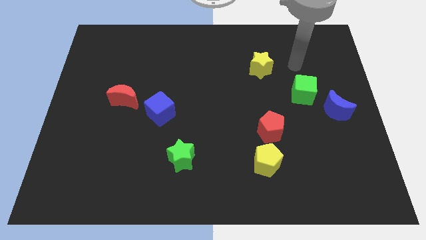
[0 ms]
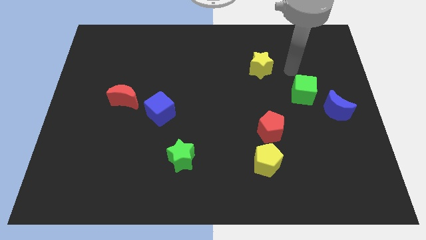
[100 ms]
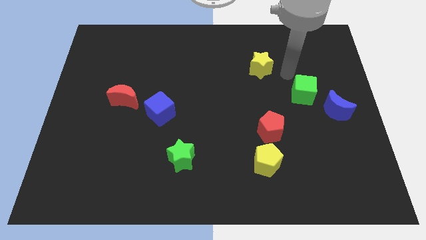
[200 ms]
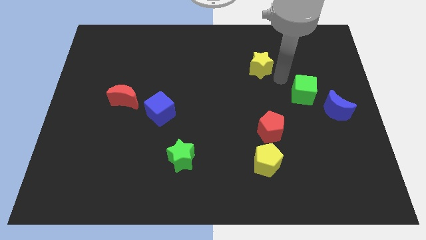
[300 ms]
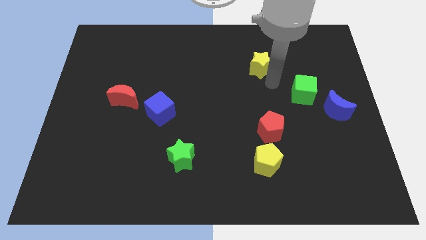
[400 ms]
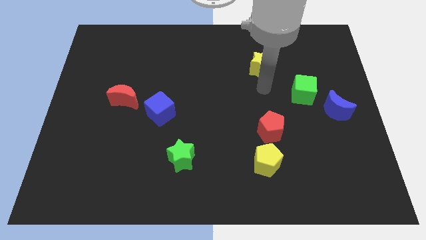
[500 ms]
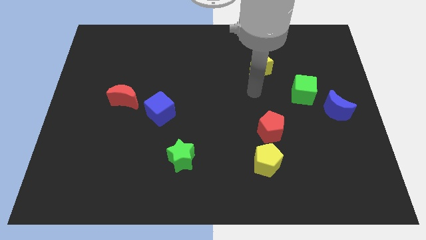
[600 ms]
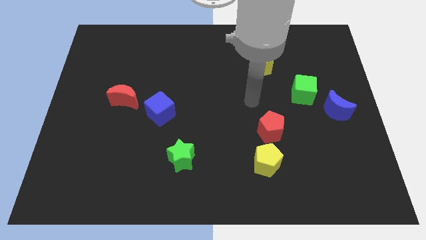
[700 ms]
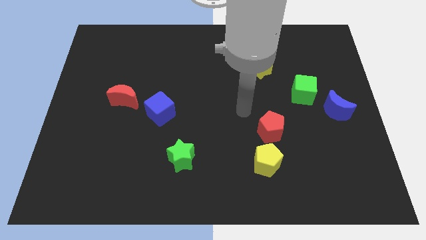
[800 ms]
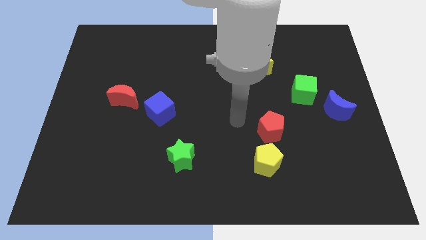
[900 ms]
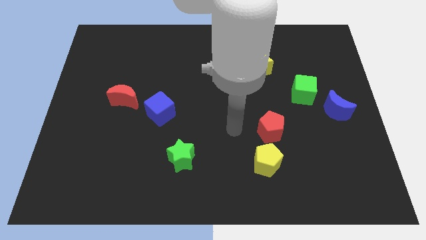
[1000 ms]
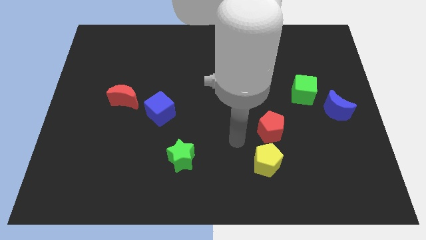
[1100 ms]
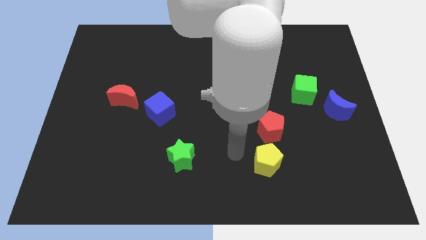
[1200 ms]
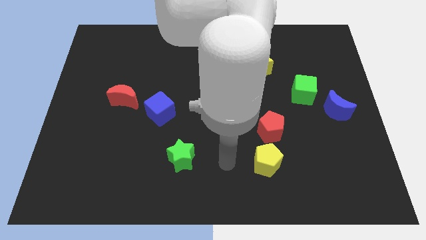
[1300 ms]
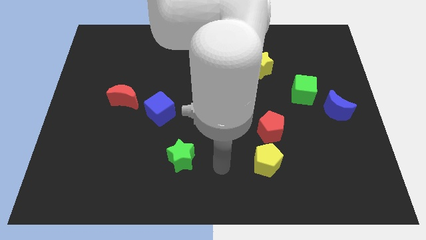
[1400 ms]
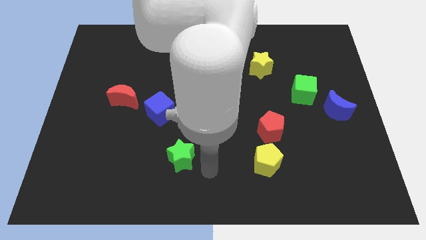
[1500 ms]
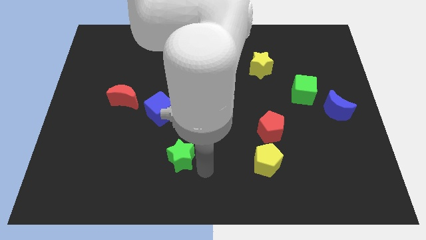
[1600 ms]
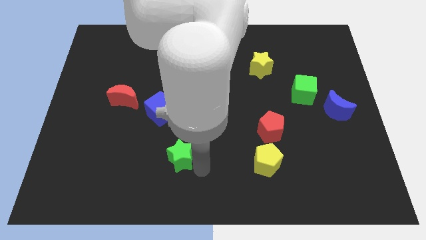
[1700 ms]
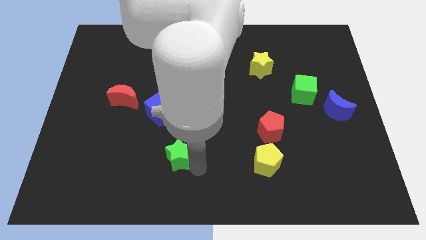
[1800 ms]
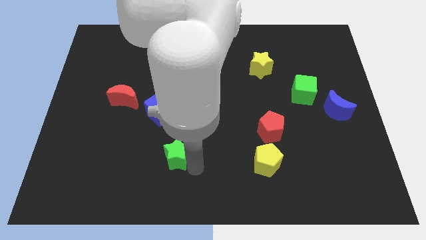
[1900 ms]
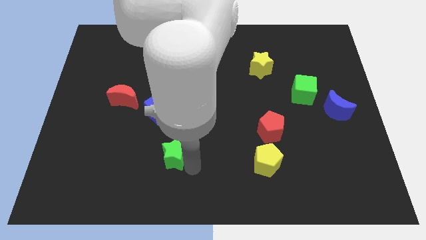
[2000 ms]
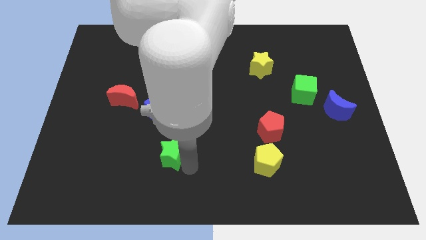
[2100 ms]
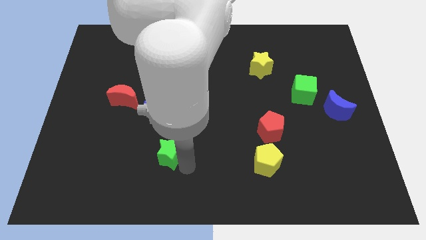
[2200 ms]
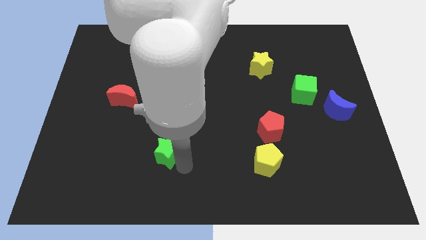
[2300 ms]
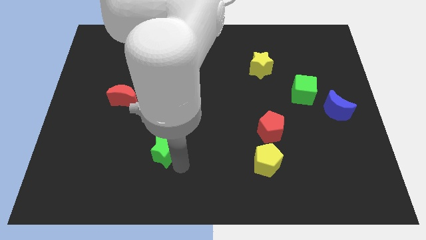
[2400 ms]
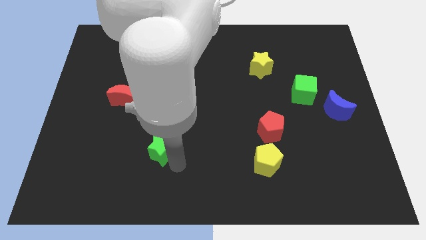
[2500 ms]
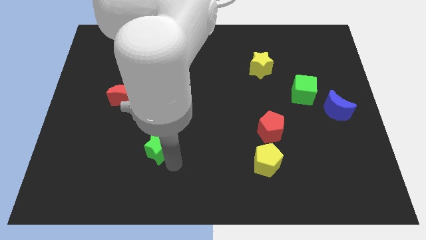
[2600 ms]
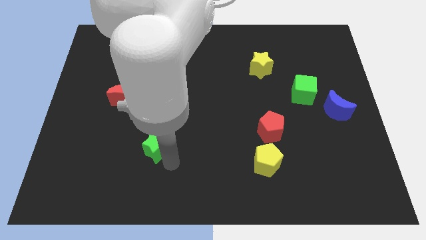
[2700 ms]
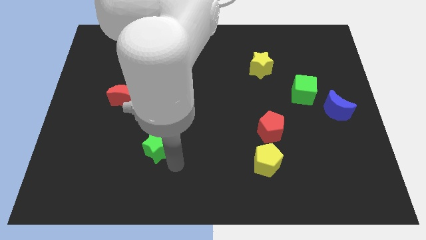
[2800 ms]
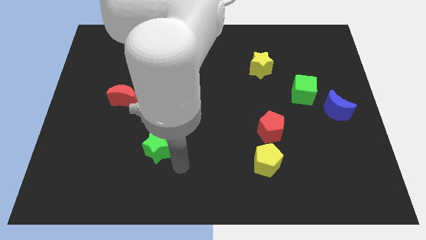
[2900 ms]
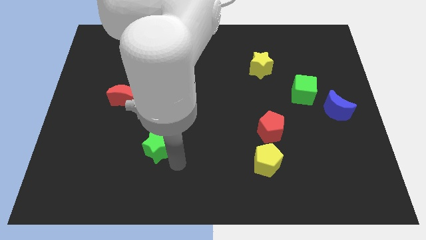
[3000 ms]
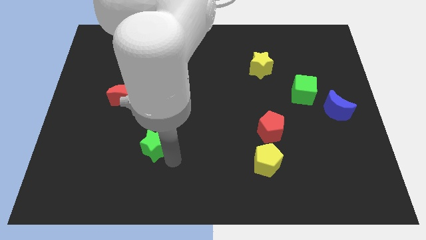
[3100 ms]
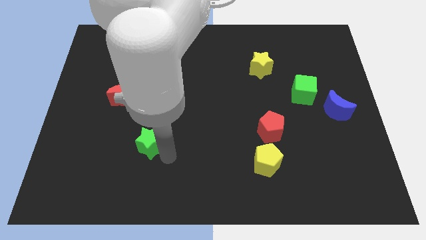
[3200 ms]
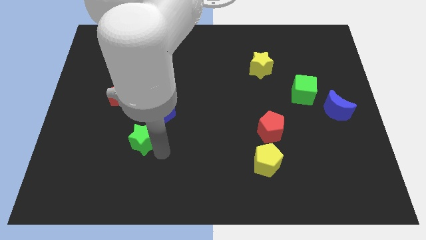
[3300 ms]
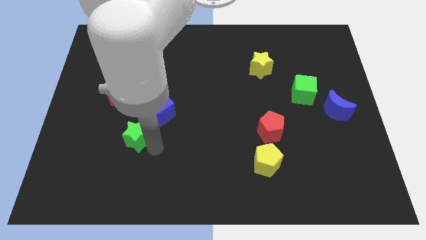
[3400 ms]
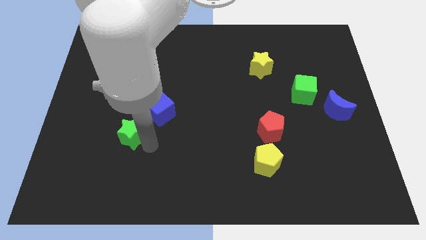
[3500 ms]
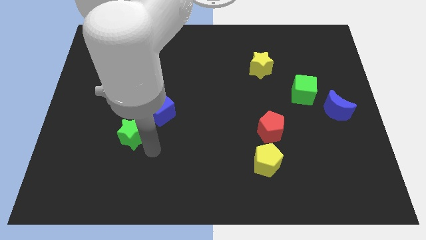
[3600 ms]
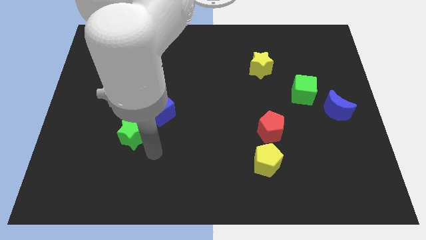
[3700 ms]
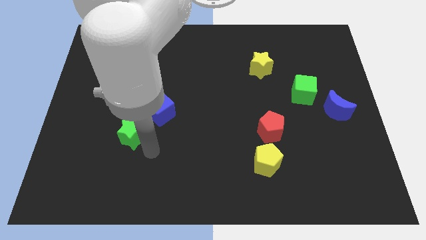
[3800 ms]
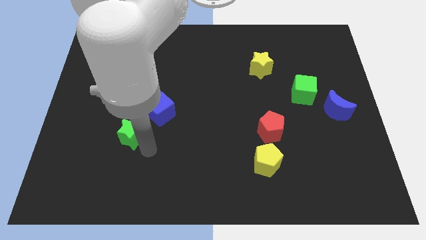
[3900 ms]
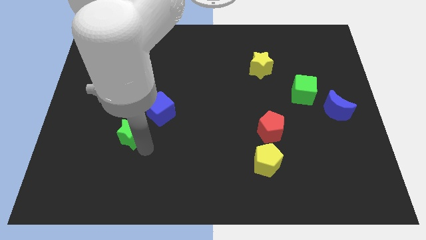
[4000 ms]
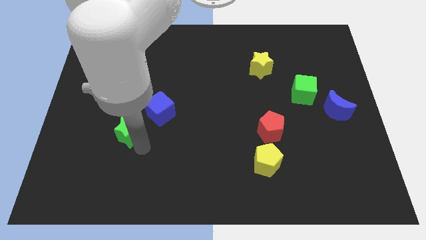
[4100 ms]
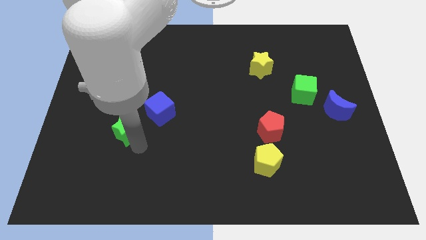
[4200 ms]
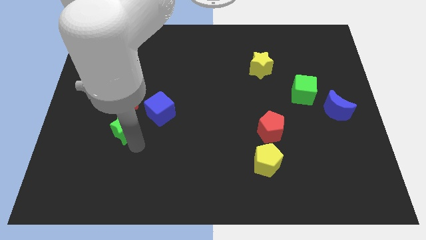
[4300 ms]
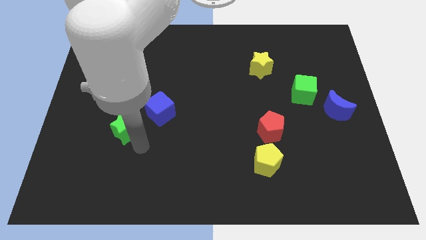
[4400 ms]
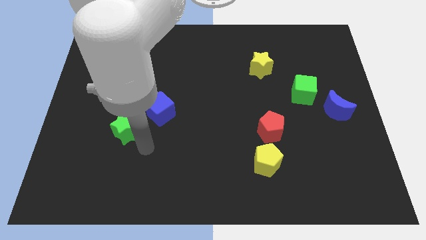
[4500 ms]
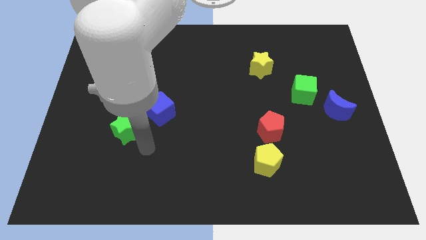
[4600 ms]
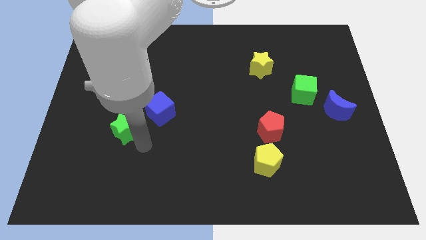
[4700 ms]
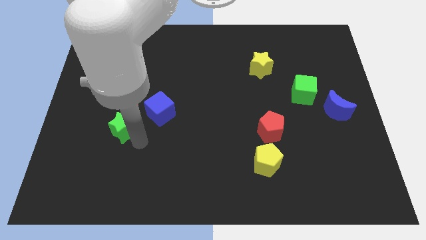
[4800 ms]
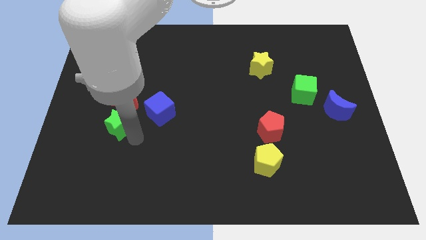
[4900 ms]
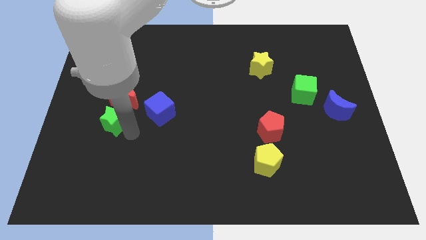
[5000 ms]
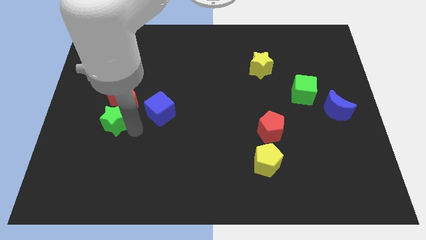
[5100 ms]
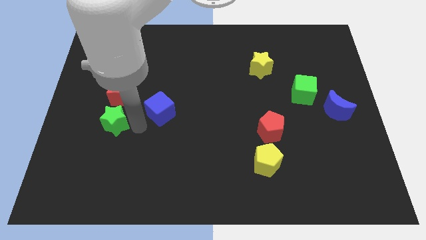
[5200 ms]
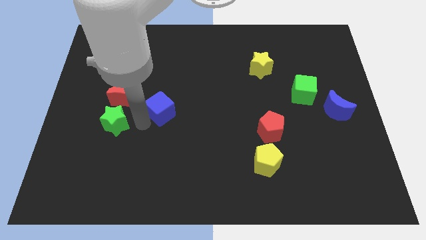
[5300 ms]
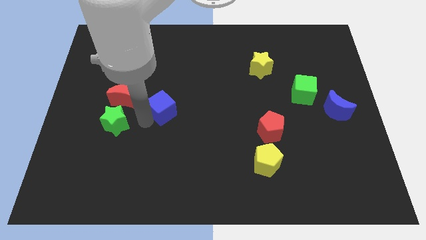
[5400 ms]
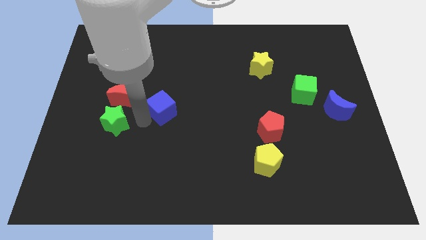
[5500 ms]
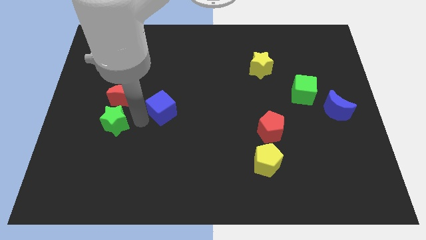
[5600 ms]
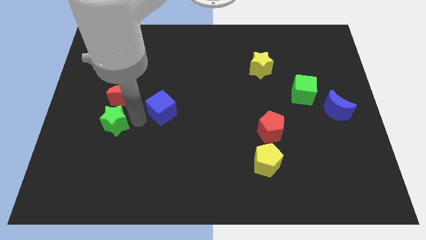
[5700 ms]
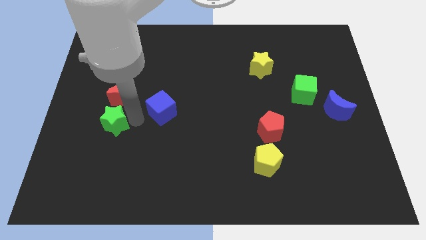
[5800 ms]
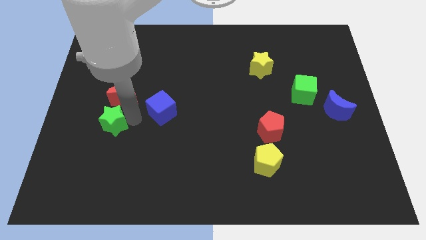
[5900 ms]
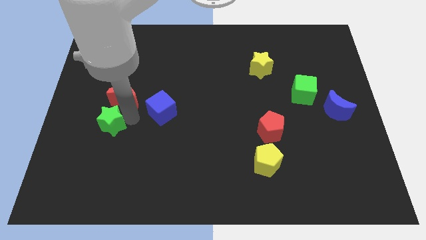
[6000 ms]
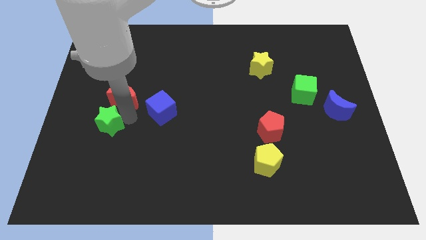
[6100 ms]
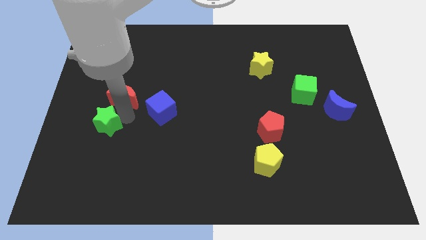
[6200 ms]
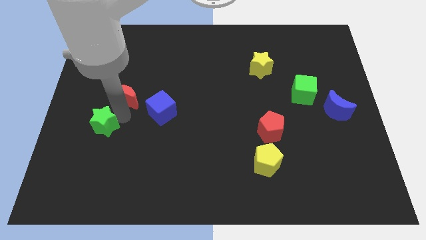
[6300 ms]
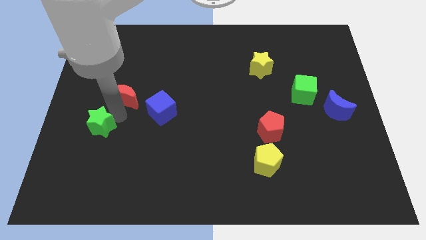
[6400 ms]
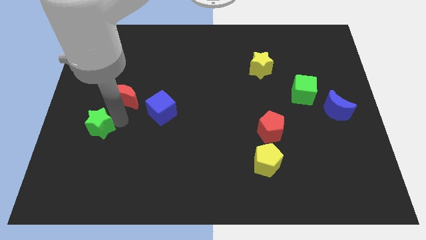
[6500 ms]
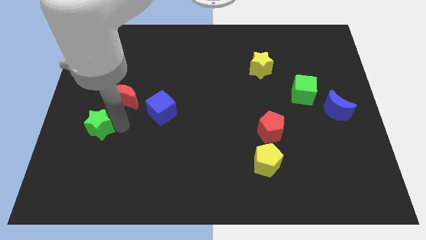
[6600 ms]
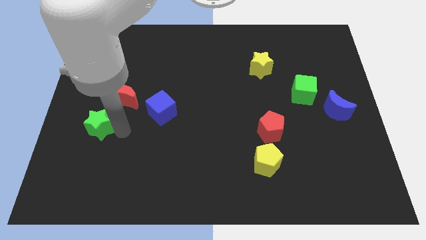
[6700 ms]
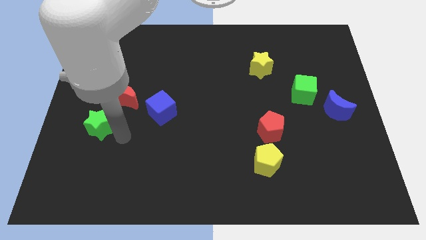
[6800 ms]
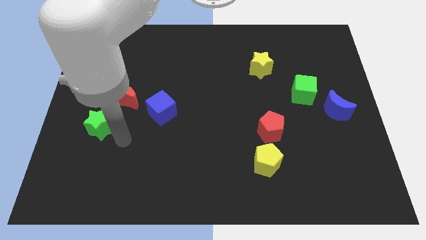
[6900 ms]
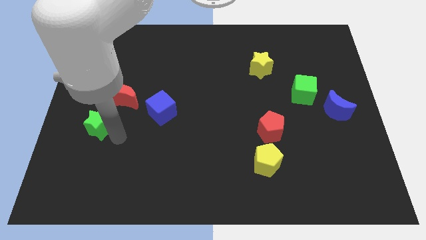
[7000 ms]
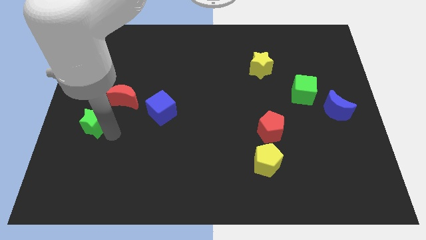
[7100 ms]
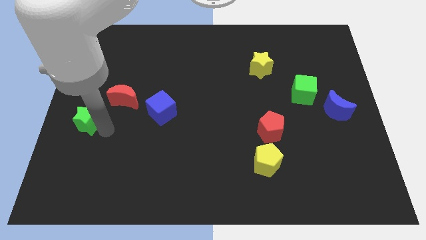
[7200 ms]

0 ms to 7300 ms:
move the green star to the left side of the board
